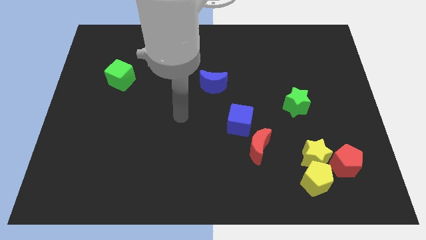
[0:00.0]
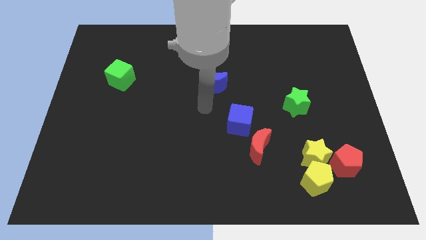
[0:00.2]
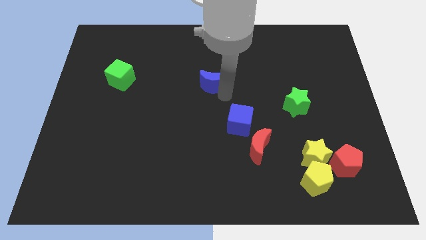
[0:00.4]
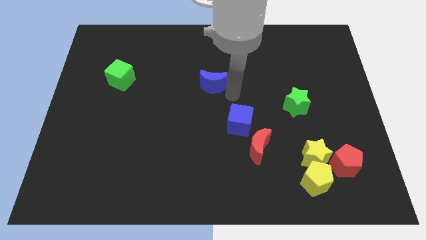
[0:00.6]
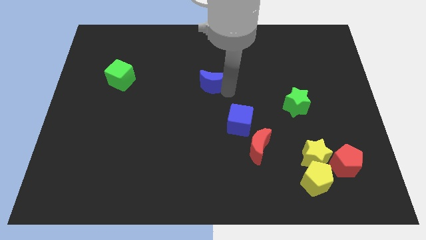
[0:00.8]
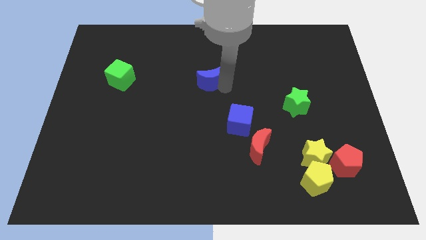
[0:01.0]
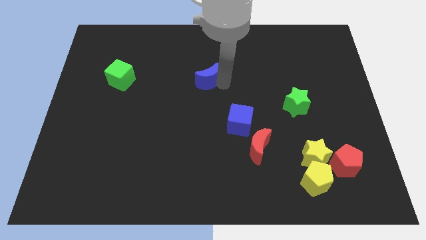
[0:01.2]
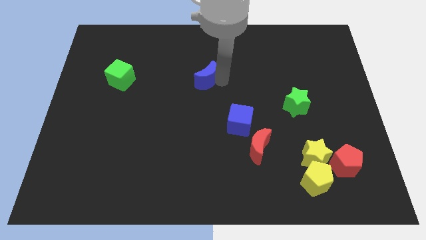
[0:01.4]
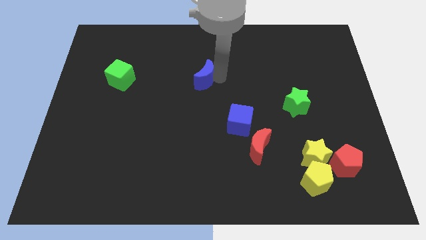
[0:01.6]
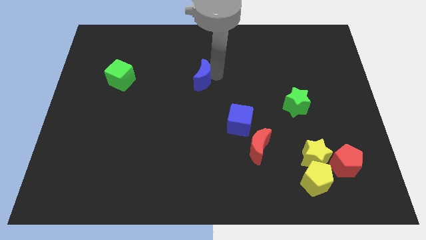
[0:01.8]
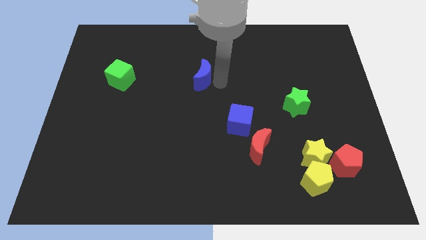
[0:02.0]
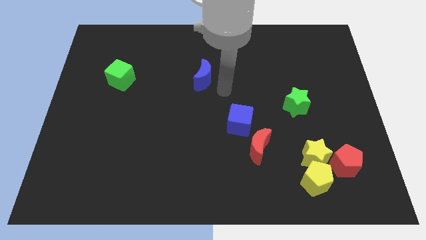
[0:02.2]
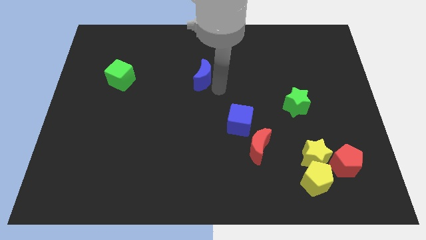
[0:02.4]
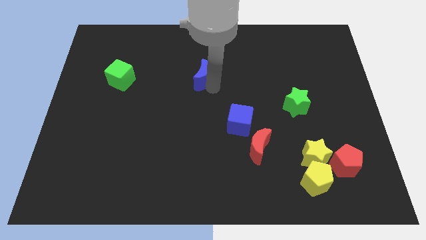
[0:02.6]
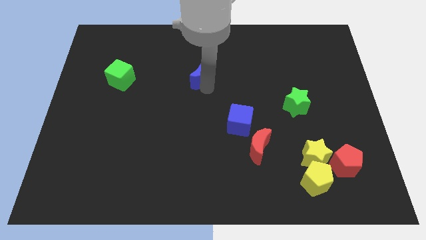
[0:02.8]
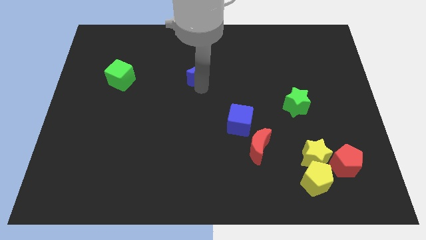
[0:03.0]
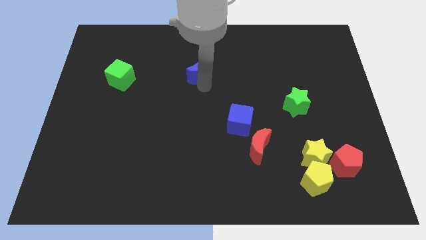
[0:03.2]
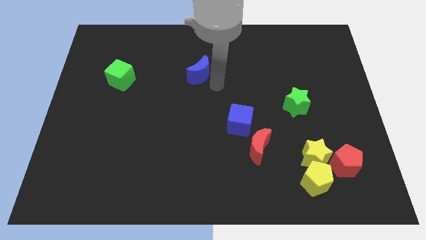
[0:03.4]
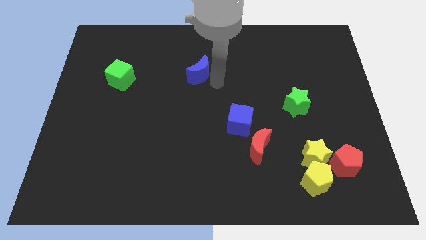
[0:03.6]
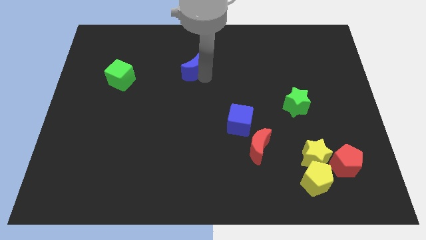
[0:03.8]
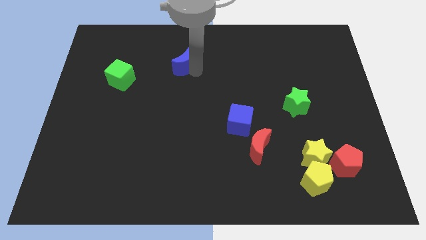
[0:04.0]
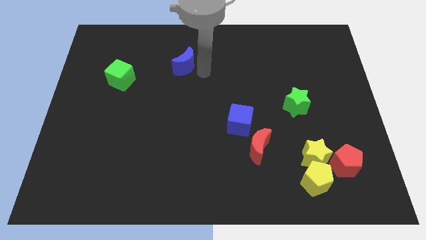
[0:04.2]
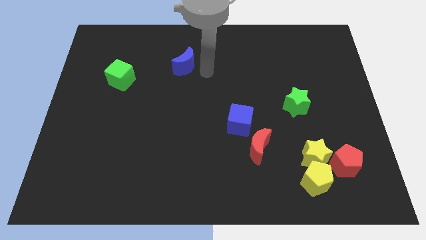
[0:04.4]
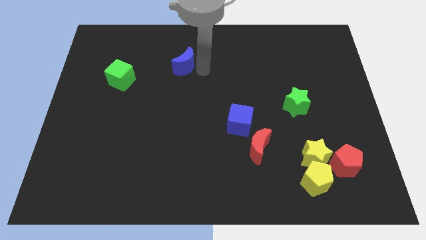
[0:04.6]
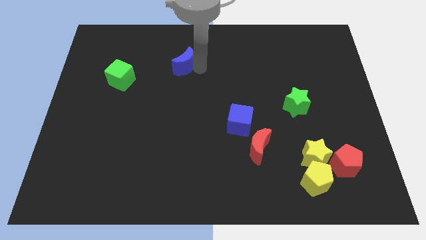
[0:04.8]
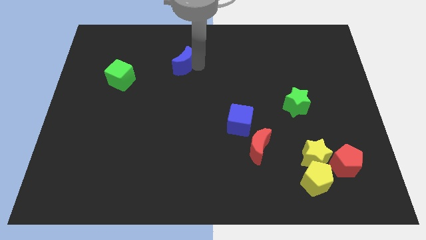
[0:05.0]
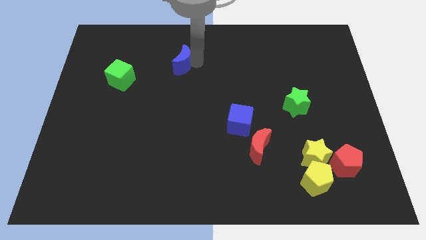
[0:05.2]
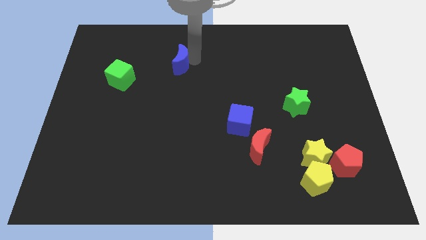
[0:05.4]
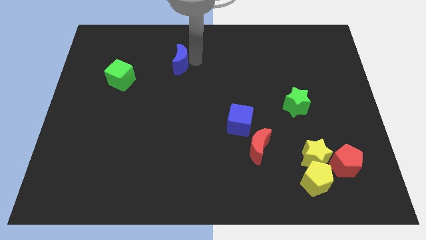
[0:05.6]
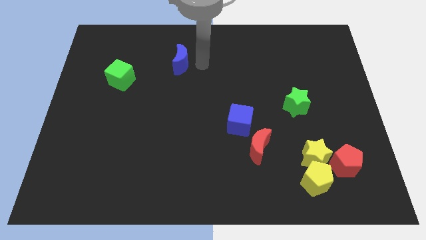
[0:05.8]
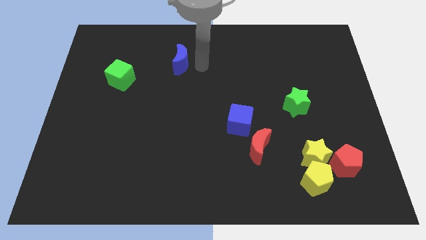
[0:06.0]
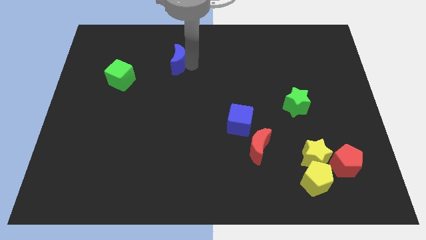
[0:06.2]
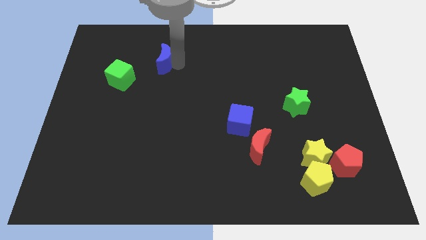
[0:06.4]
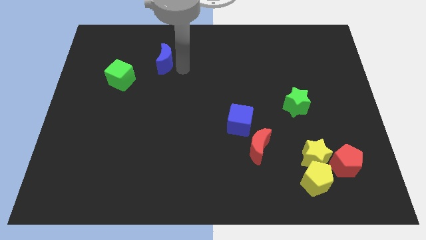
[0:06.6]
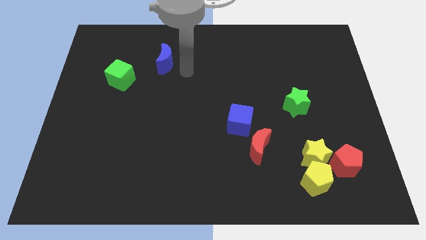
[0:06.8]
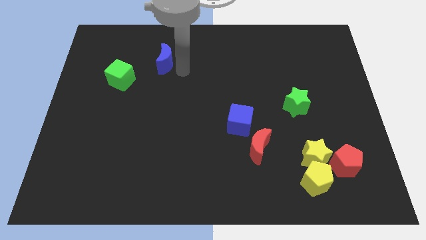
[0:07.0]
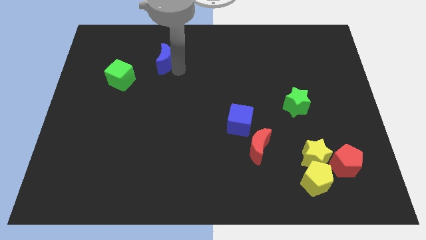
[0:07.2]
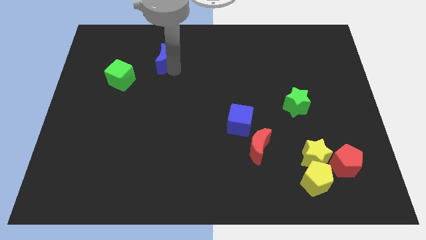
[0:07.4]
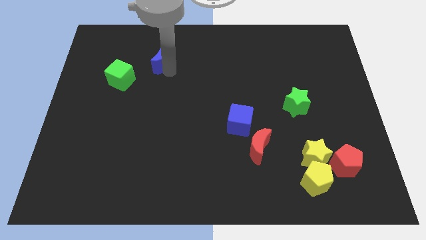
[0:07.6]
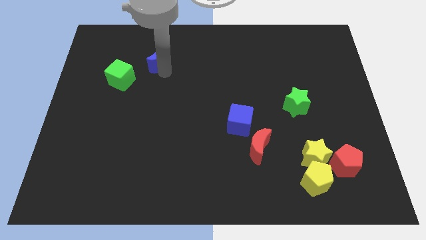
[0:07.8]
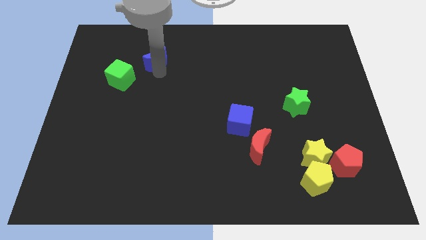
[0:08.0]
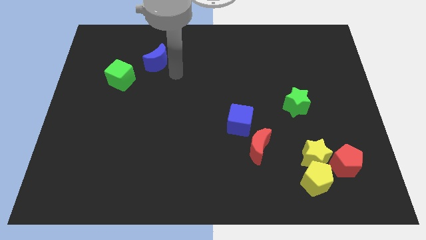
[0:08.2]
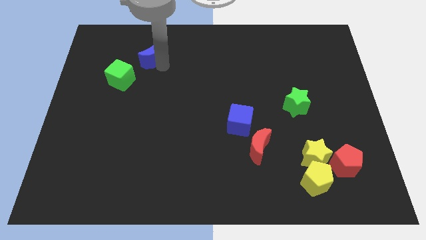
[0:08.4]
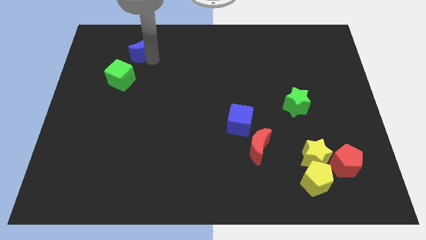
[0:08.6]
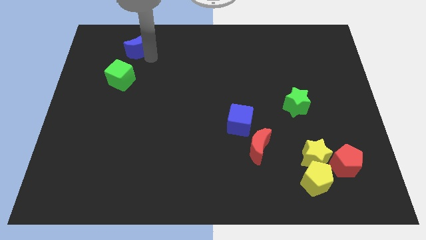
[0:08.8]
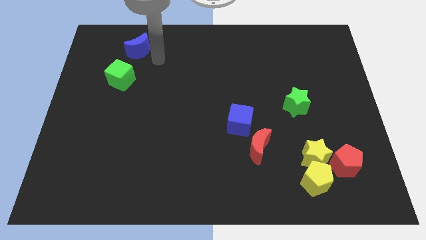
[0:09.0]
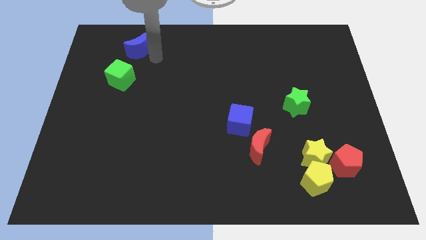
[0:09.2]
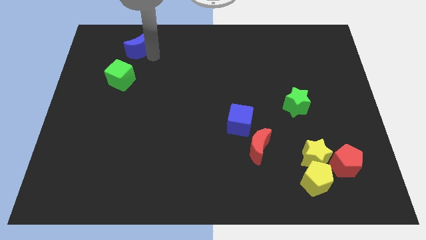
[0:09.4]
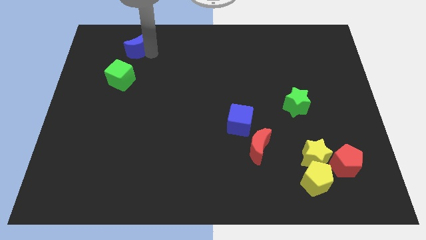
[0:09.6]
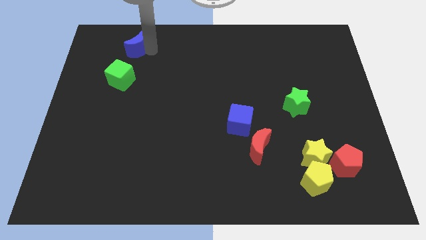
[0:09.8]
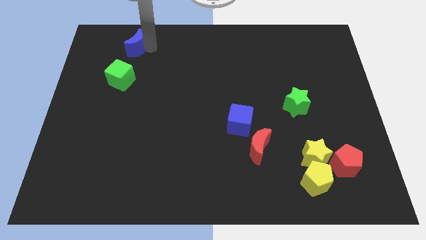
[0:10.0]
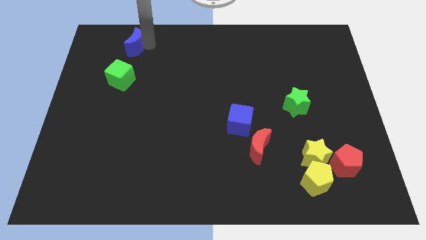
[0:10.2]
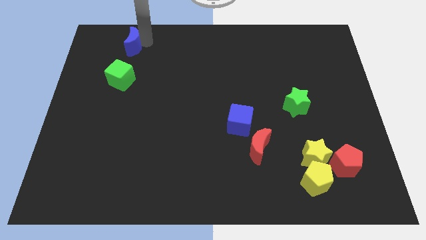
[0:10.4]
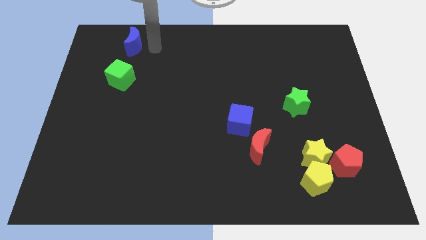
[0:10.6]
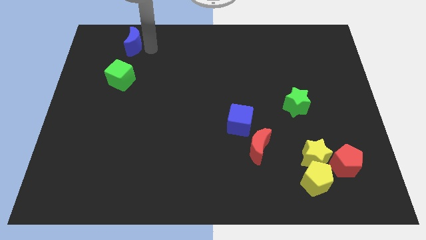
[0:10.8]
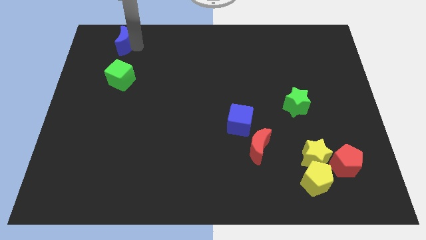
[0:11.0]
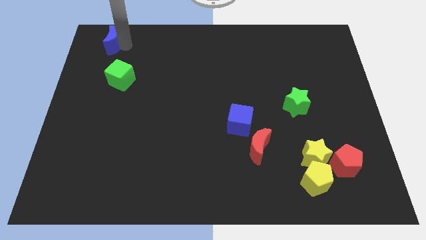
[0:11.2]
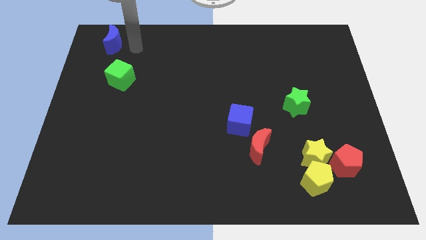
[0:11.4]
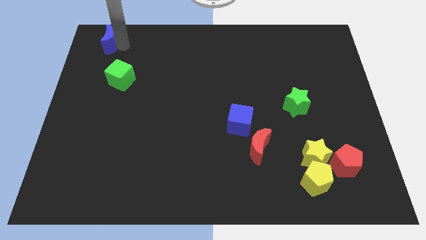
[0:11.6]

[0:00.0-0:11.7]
put the blue moon to the top left

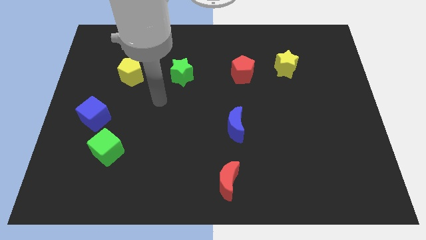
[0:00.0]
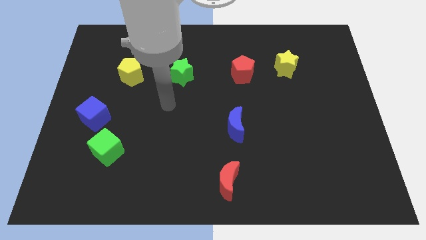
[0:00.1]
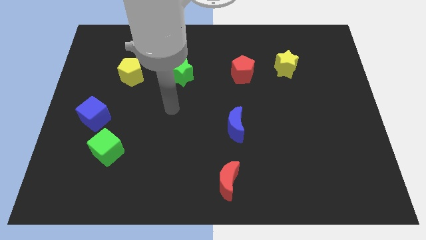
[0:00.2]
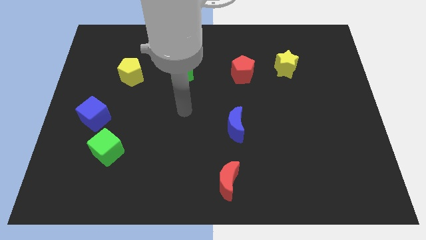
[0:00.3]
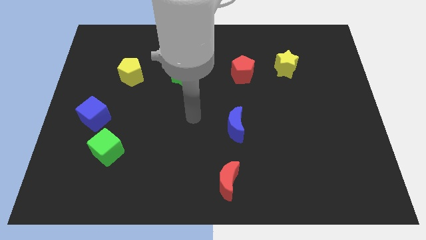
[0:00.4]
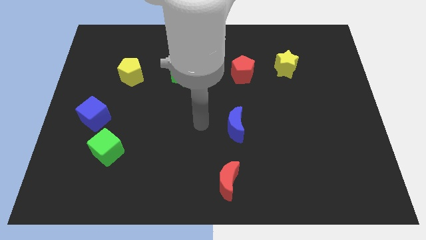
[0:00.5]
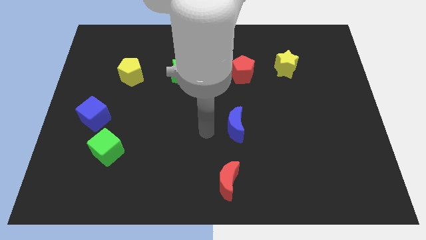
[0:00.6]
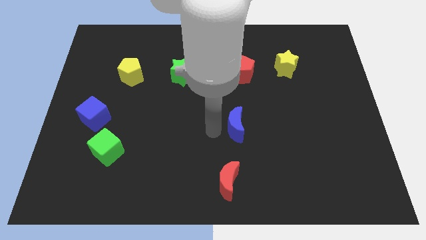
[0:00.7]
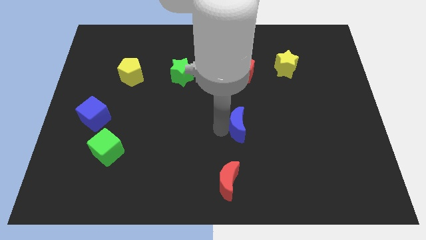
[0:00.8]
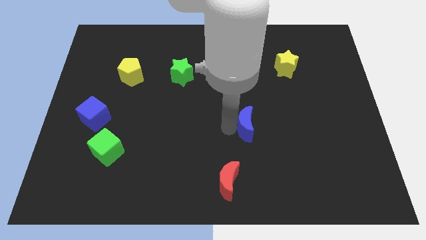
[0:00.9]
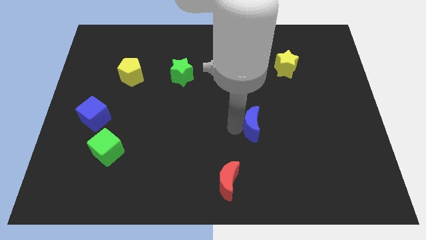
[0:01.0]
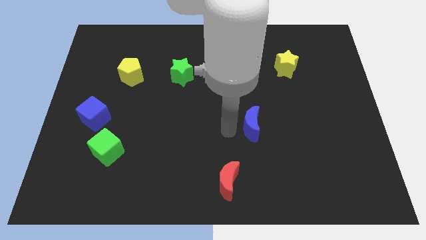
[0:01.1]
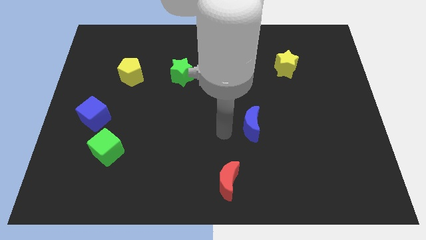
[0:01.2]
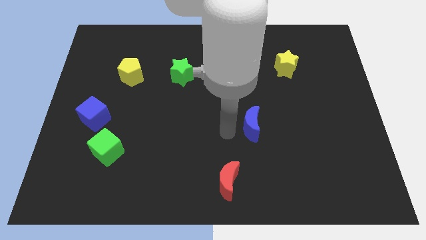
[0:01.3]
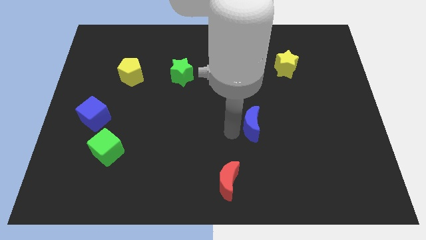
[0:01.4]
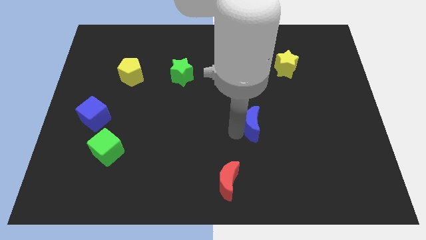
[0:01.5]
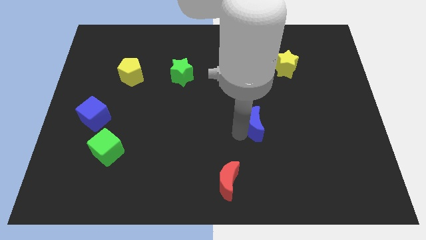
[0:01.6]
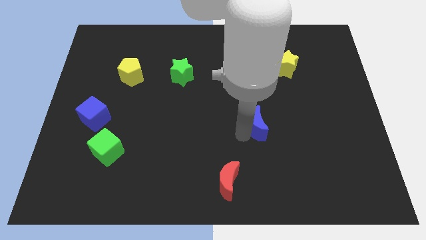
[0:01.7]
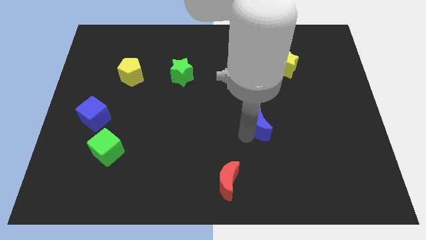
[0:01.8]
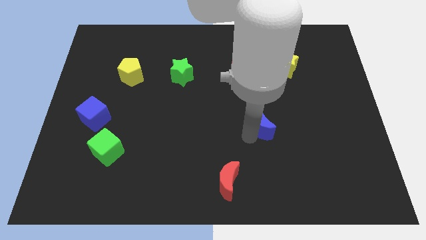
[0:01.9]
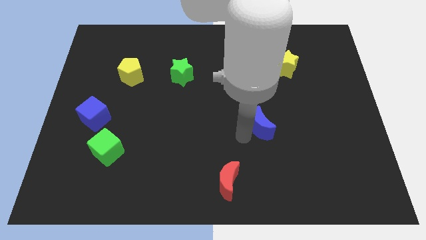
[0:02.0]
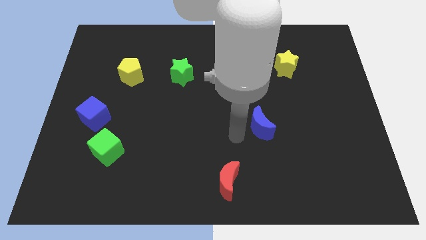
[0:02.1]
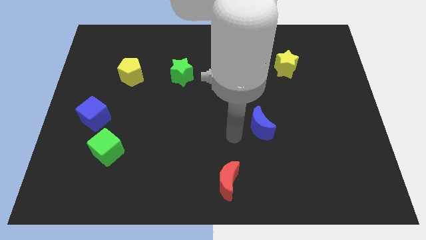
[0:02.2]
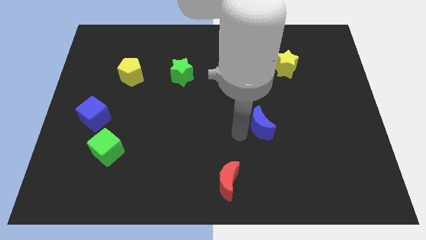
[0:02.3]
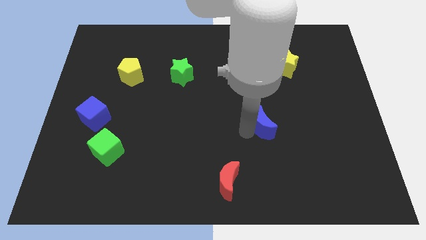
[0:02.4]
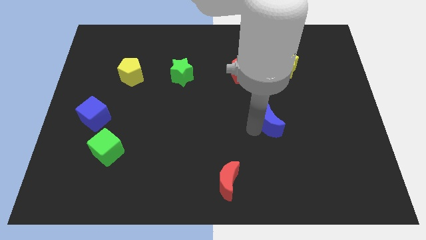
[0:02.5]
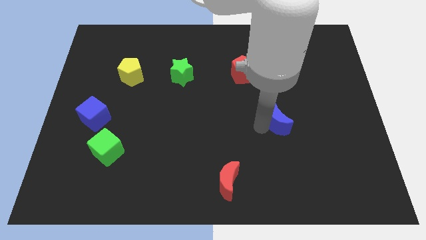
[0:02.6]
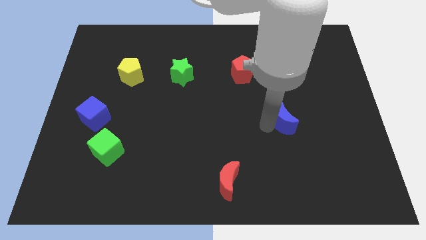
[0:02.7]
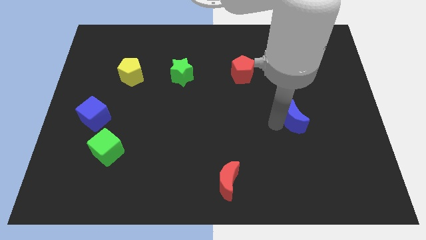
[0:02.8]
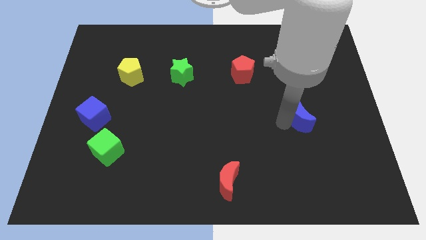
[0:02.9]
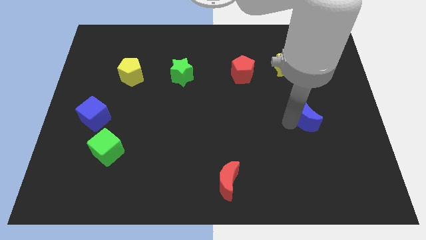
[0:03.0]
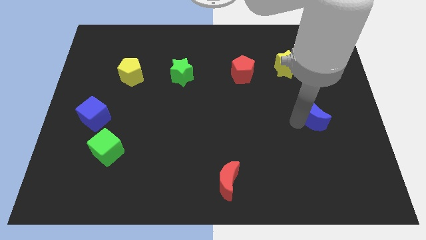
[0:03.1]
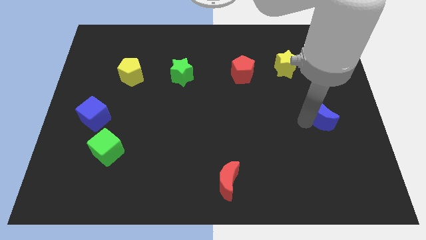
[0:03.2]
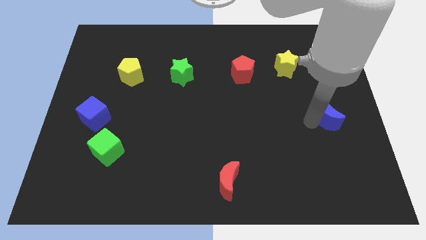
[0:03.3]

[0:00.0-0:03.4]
put the blue moon to the right side
